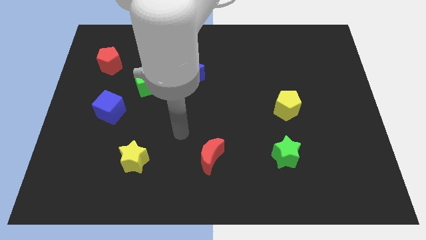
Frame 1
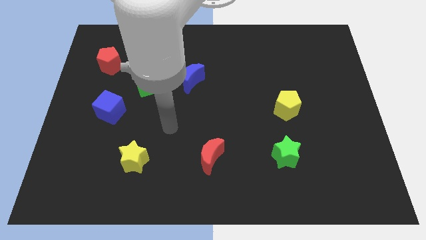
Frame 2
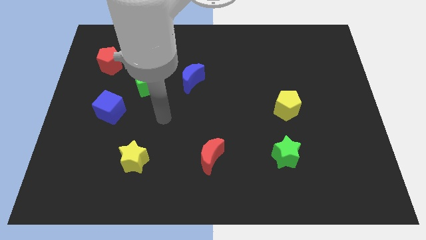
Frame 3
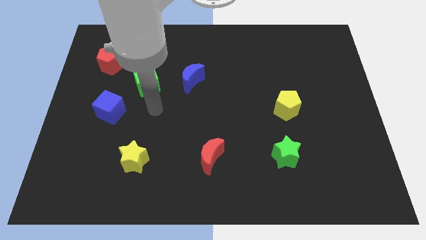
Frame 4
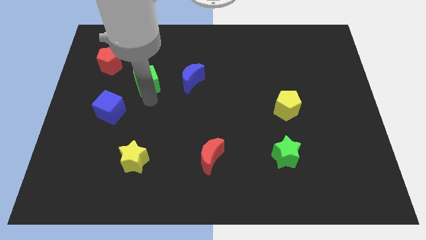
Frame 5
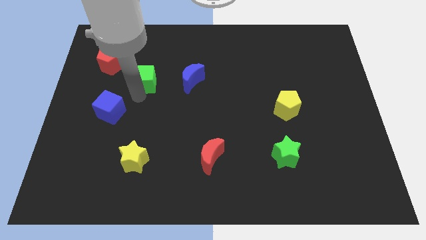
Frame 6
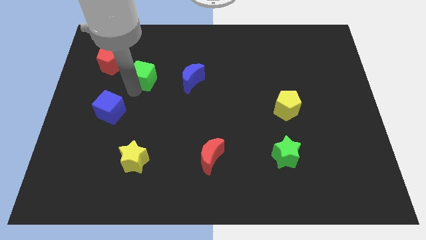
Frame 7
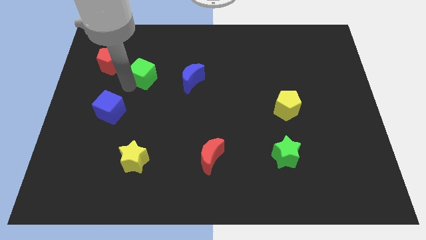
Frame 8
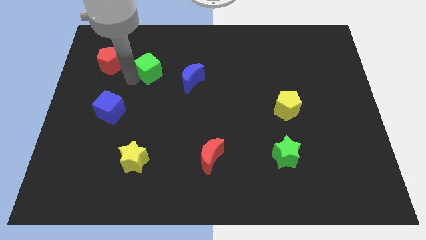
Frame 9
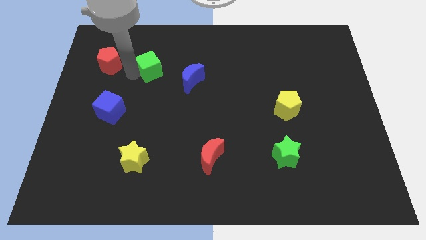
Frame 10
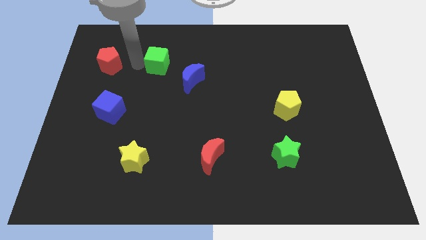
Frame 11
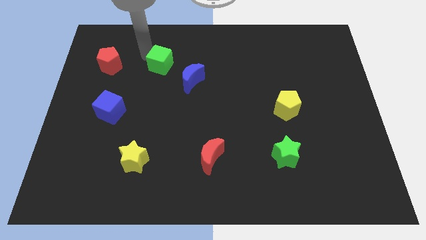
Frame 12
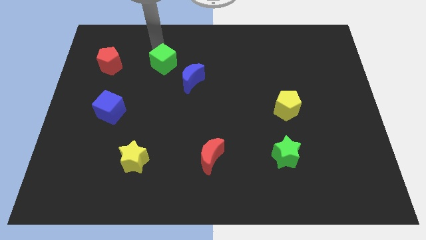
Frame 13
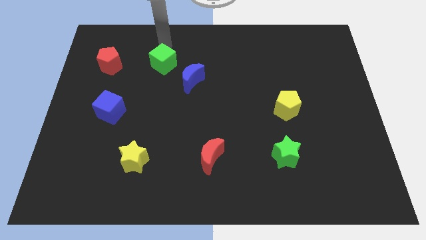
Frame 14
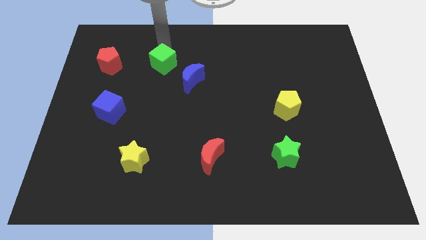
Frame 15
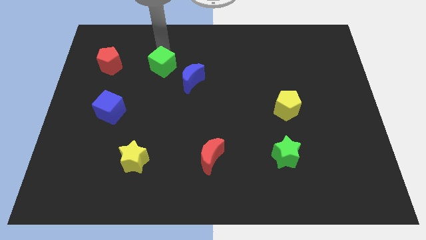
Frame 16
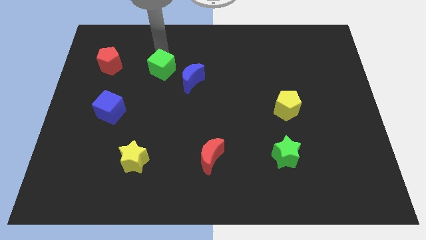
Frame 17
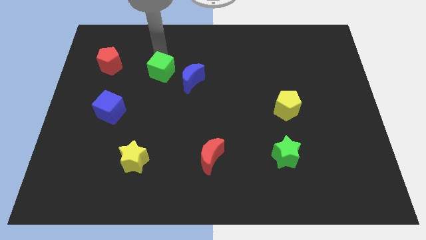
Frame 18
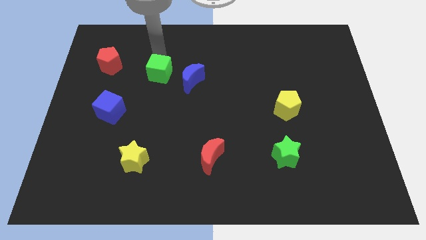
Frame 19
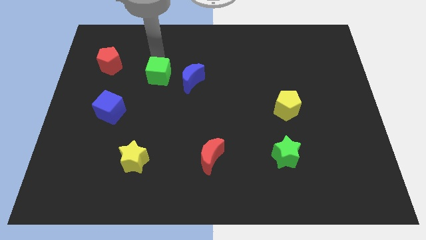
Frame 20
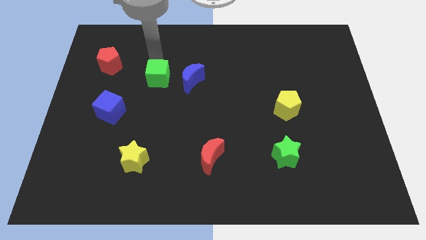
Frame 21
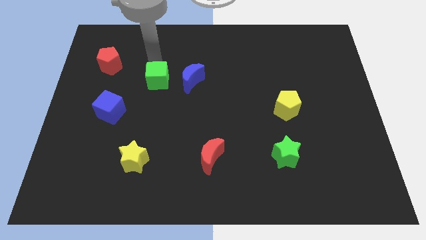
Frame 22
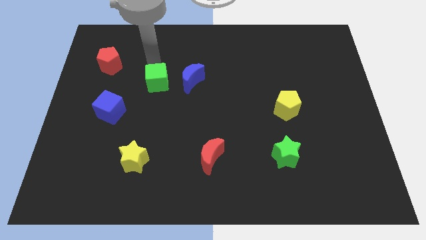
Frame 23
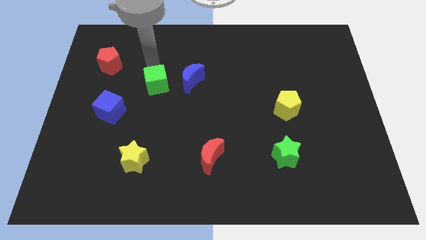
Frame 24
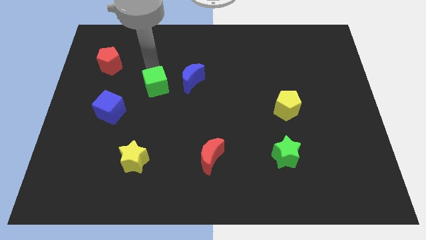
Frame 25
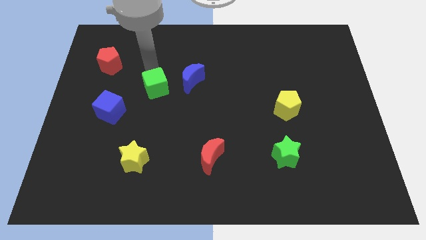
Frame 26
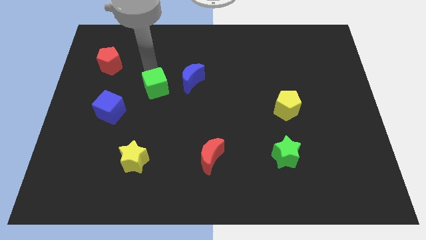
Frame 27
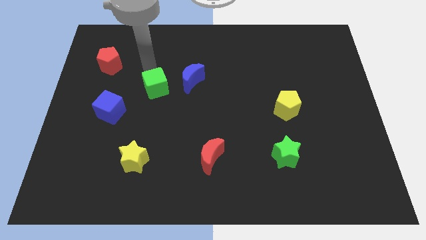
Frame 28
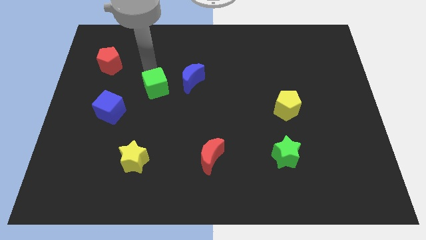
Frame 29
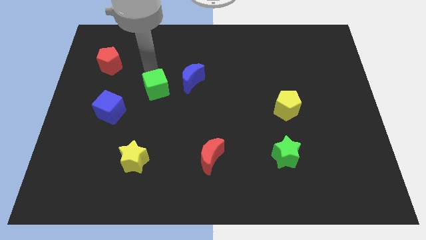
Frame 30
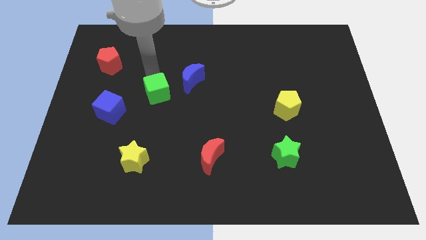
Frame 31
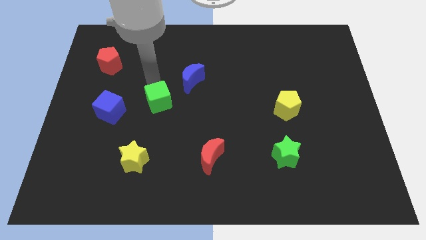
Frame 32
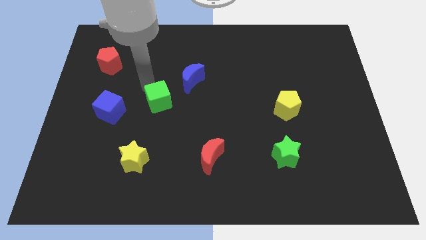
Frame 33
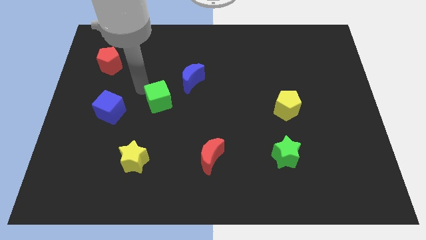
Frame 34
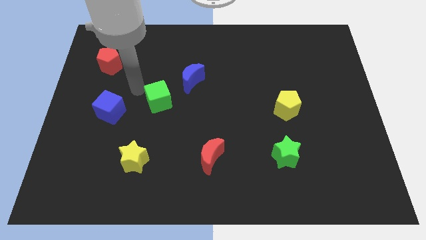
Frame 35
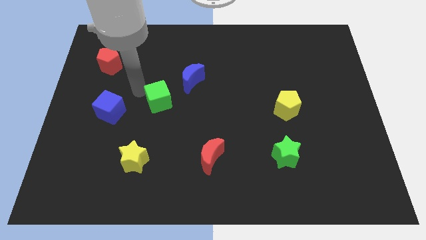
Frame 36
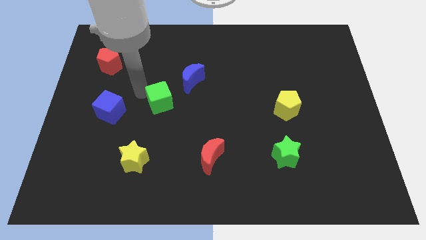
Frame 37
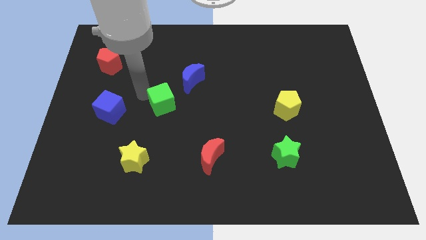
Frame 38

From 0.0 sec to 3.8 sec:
move the green cube downwards and right diagonally a little

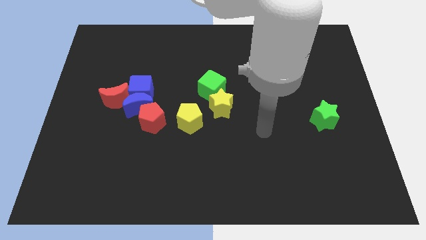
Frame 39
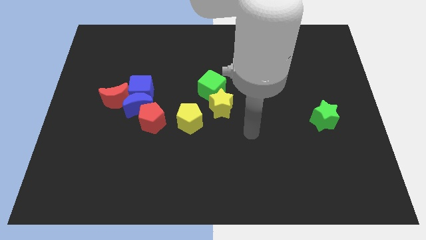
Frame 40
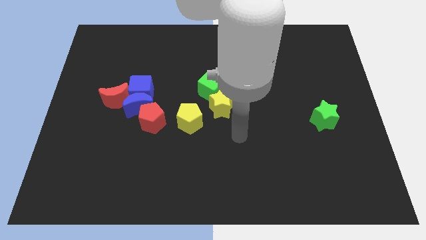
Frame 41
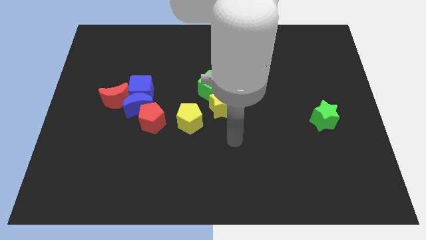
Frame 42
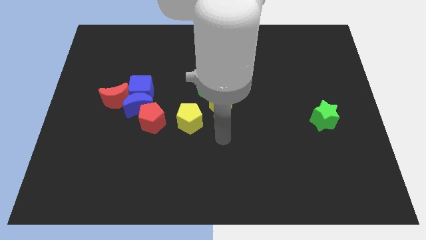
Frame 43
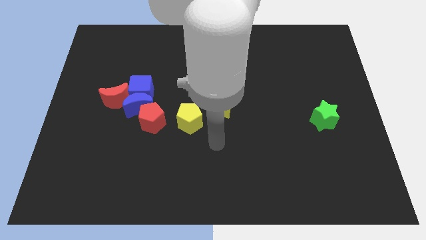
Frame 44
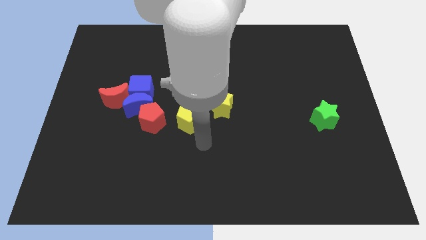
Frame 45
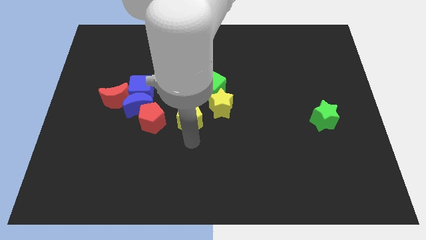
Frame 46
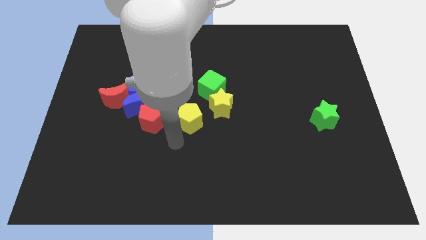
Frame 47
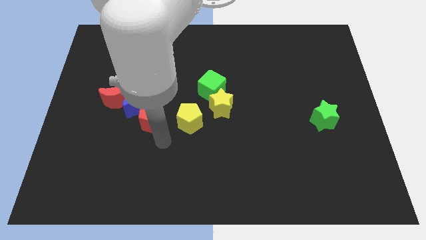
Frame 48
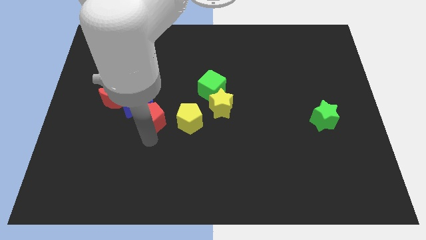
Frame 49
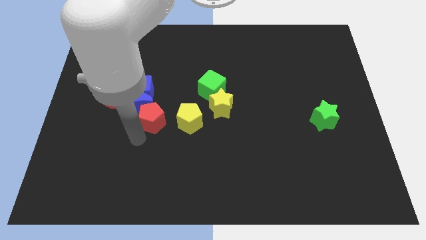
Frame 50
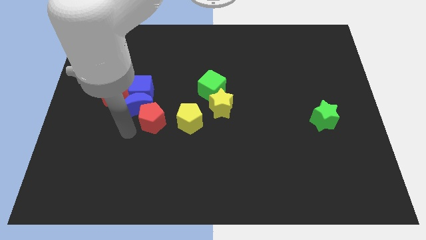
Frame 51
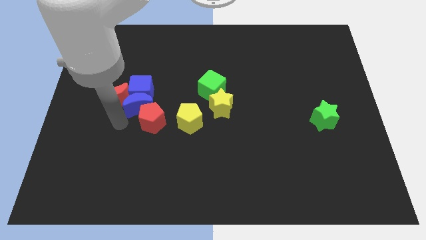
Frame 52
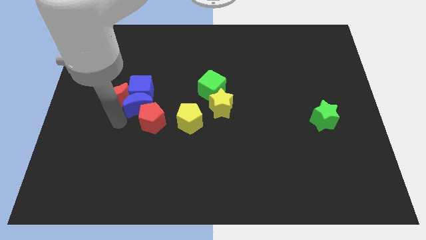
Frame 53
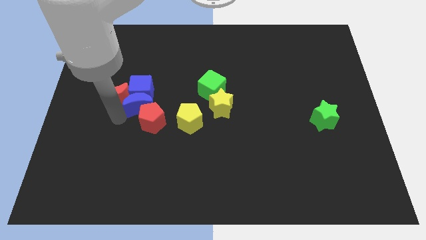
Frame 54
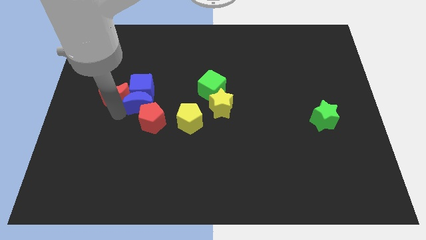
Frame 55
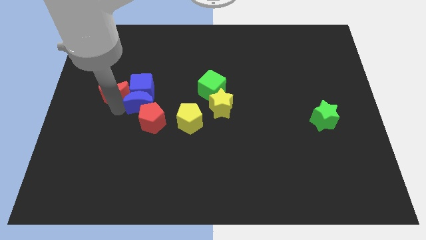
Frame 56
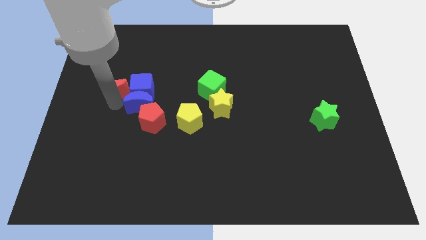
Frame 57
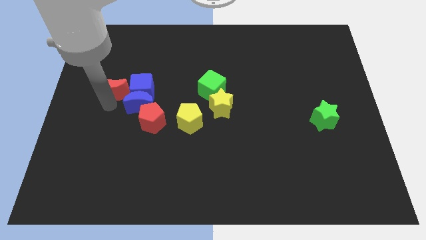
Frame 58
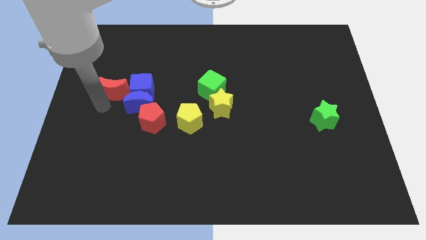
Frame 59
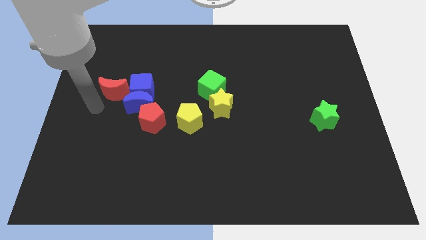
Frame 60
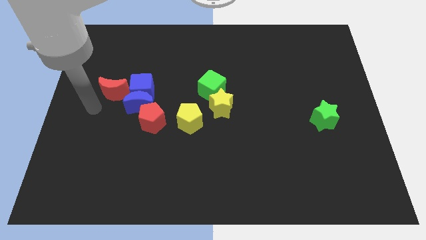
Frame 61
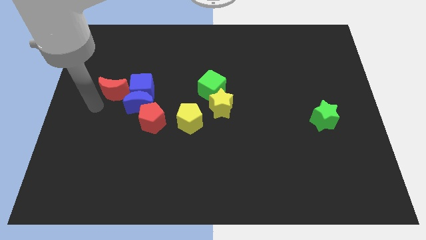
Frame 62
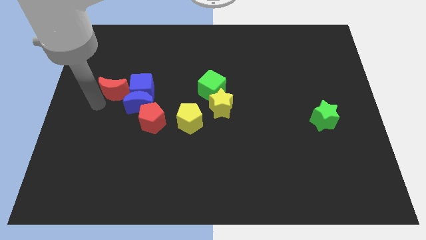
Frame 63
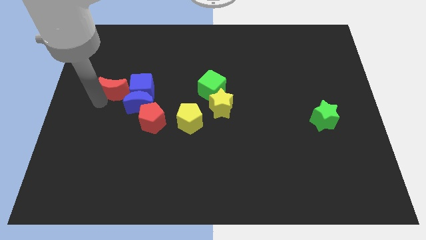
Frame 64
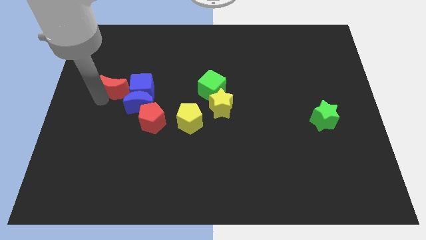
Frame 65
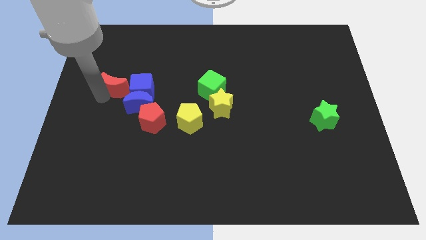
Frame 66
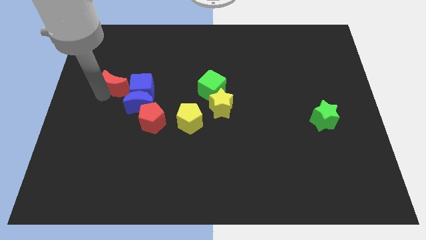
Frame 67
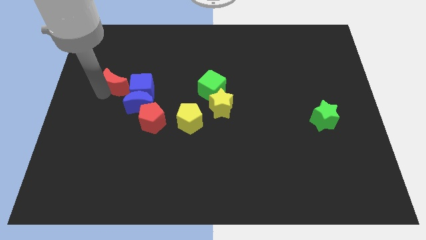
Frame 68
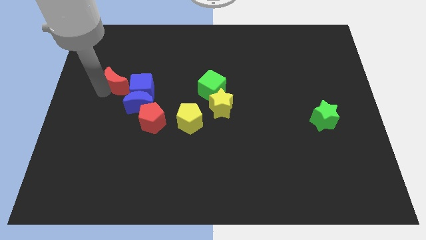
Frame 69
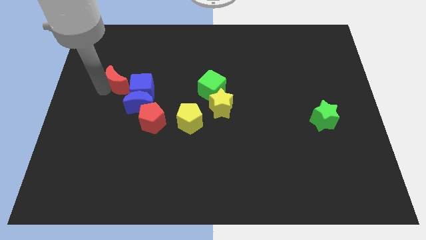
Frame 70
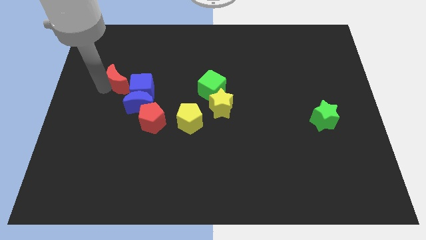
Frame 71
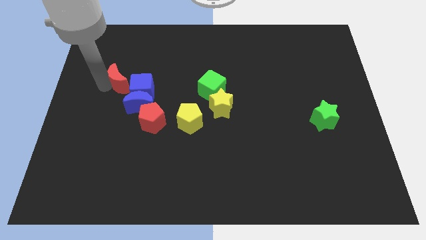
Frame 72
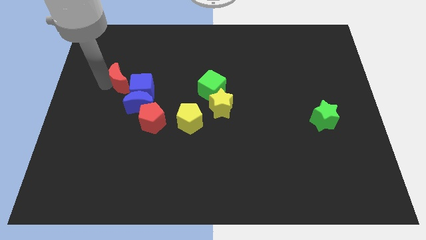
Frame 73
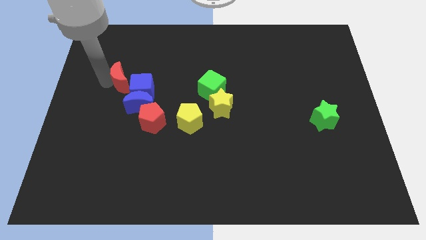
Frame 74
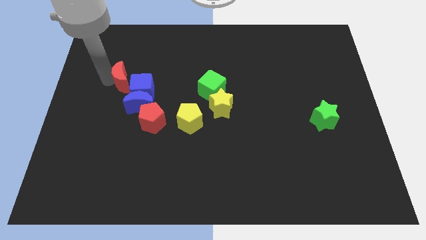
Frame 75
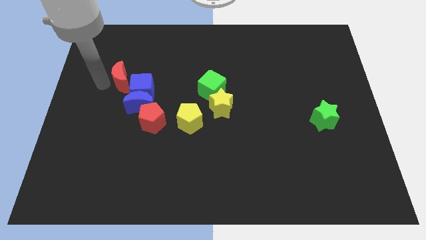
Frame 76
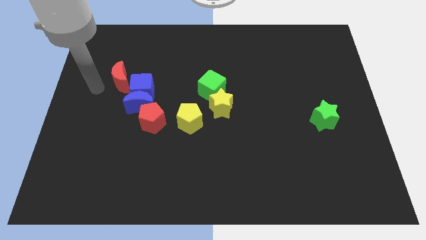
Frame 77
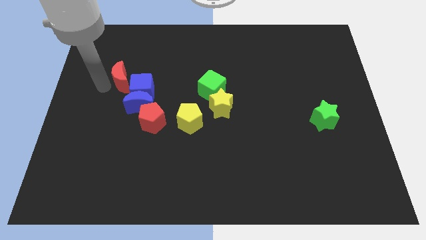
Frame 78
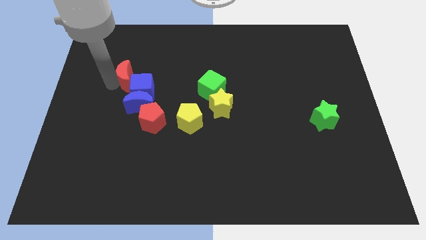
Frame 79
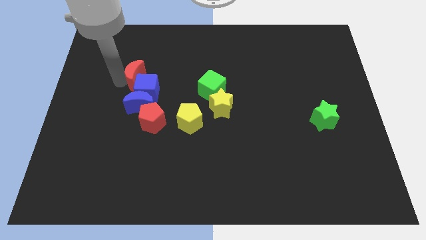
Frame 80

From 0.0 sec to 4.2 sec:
slightly slide the red moon upwards and right
